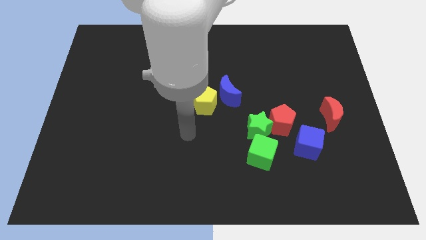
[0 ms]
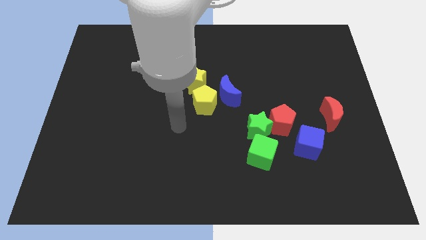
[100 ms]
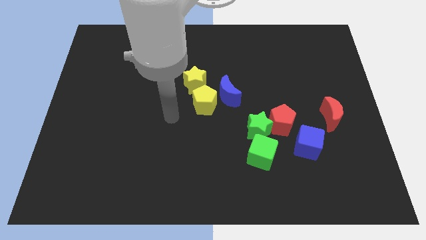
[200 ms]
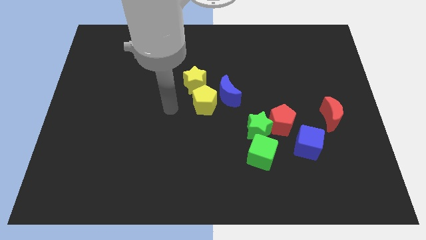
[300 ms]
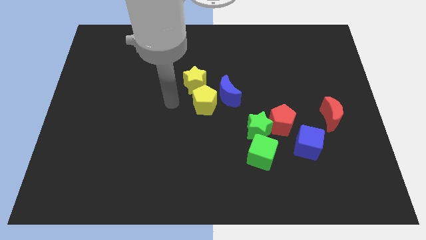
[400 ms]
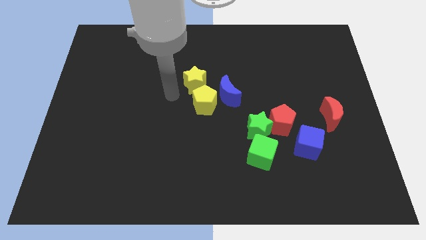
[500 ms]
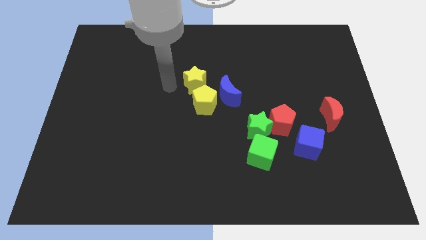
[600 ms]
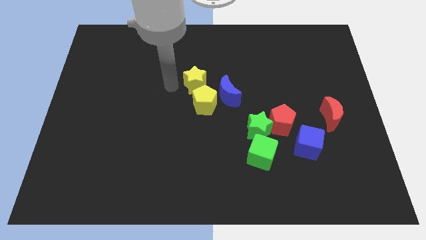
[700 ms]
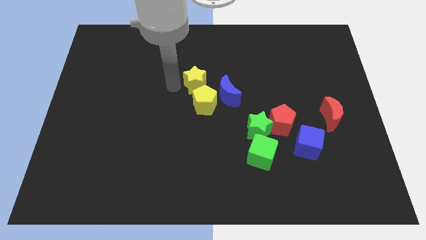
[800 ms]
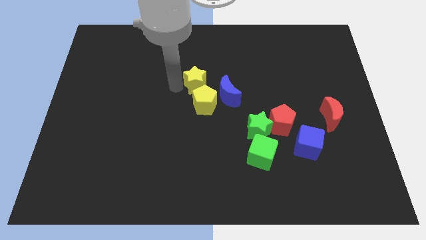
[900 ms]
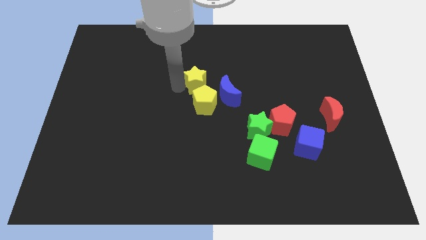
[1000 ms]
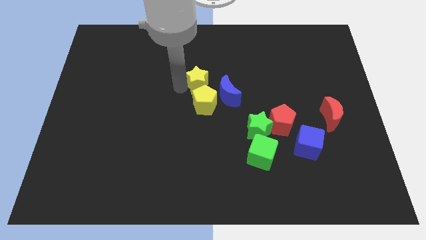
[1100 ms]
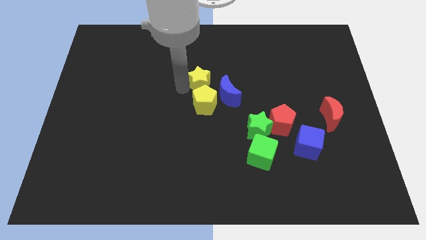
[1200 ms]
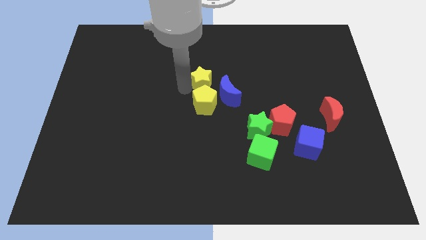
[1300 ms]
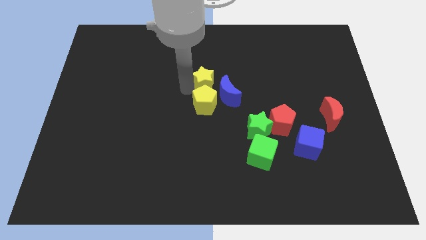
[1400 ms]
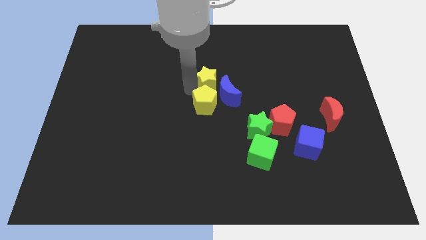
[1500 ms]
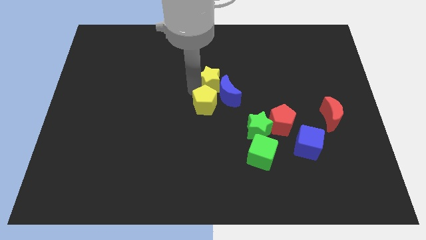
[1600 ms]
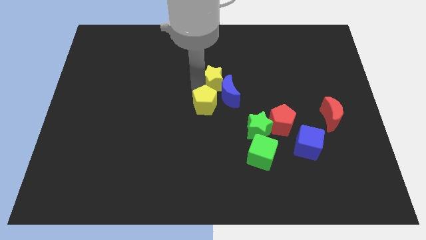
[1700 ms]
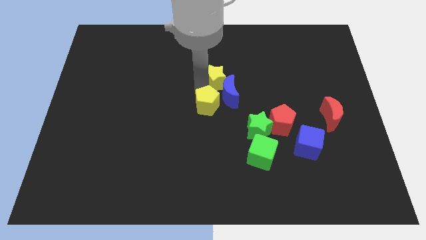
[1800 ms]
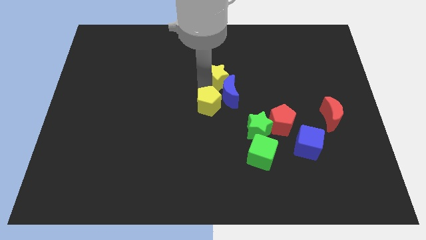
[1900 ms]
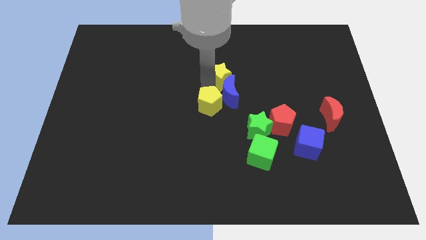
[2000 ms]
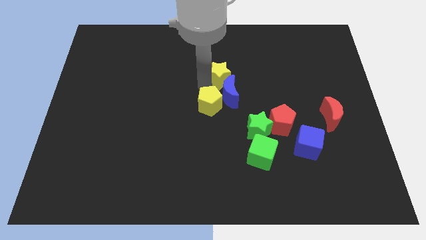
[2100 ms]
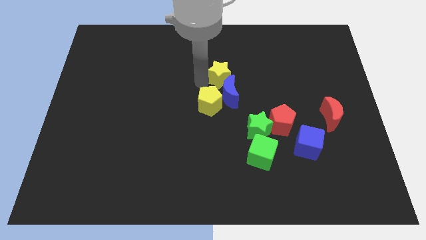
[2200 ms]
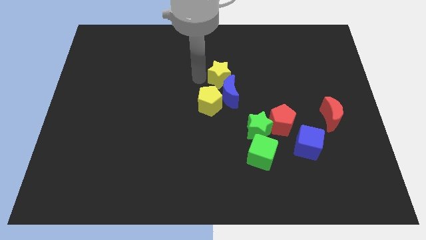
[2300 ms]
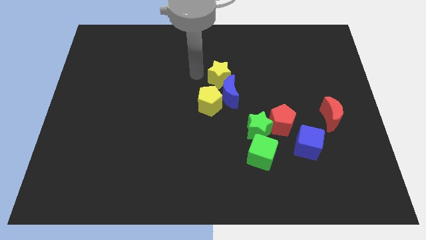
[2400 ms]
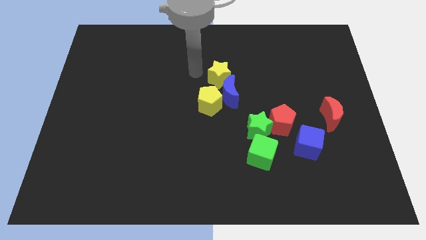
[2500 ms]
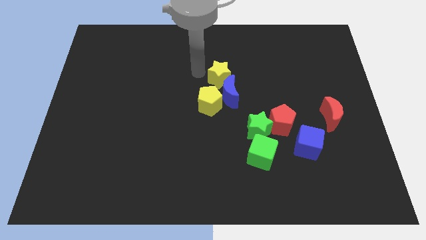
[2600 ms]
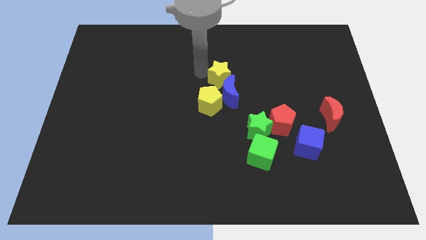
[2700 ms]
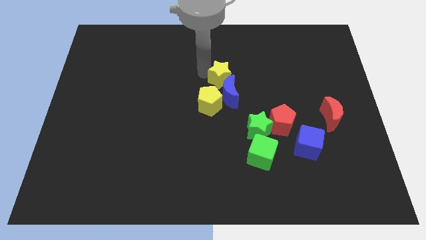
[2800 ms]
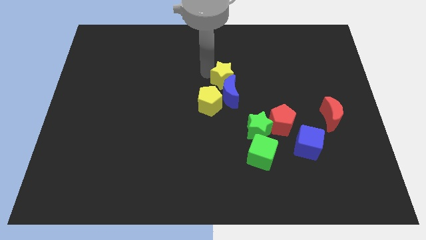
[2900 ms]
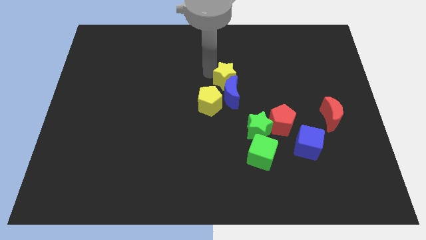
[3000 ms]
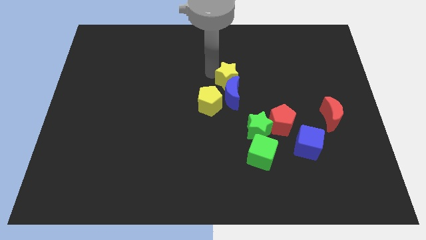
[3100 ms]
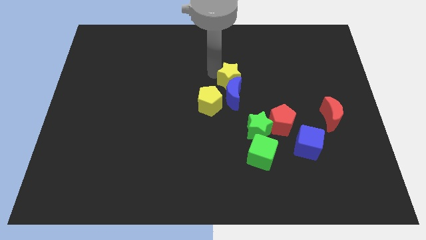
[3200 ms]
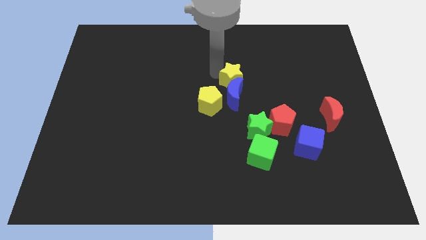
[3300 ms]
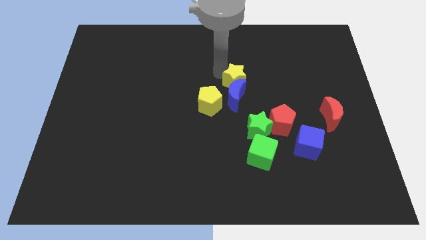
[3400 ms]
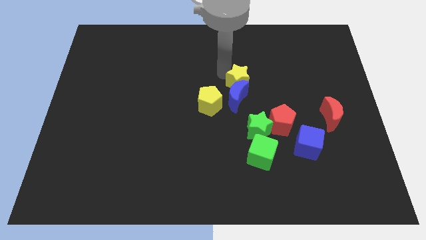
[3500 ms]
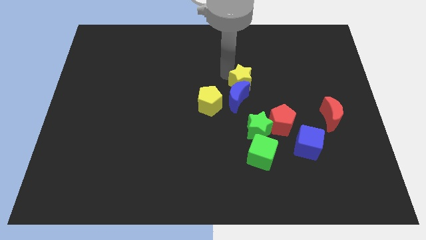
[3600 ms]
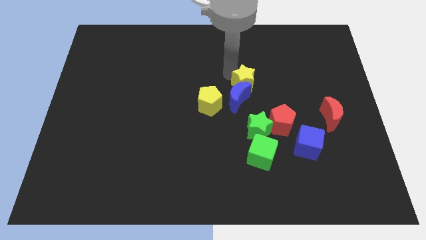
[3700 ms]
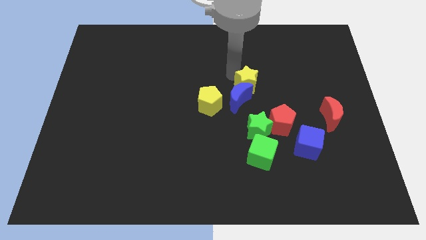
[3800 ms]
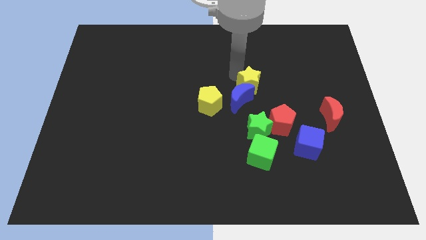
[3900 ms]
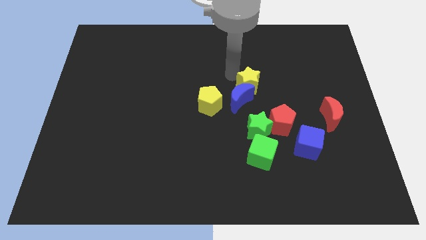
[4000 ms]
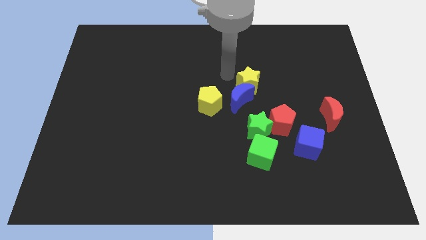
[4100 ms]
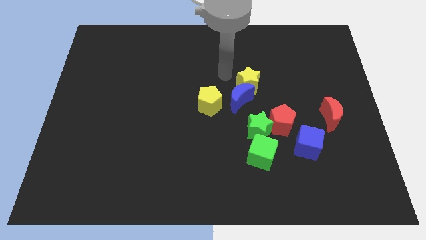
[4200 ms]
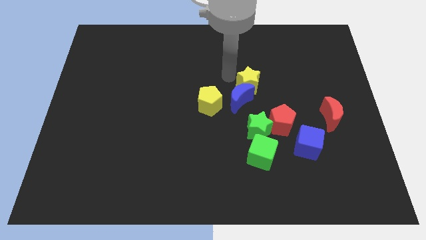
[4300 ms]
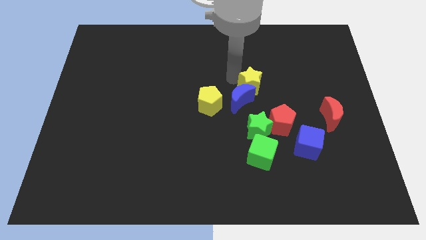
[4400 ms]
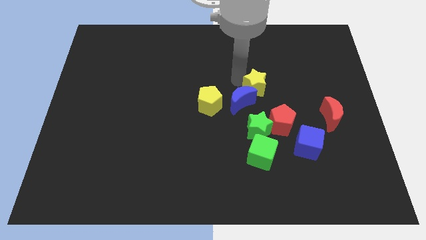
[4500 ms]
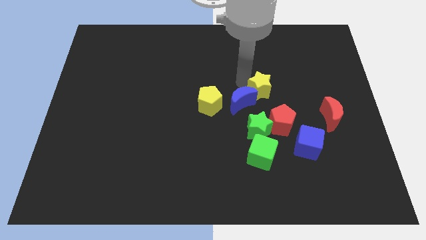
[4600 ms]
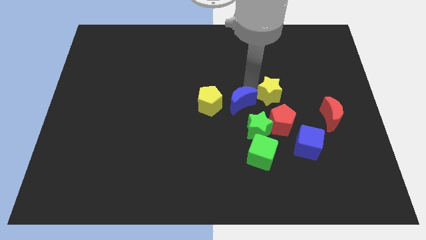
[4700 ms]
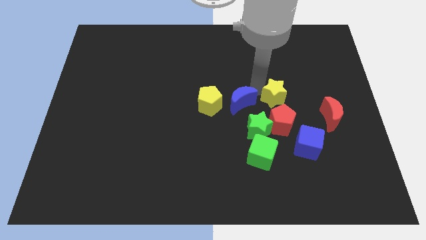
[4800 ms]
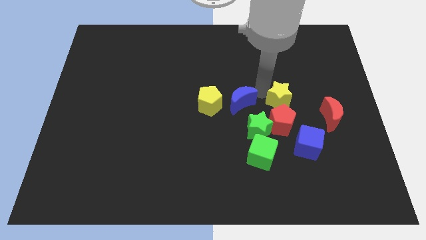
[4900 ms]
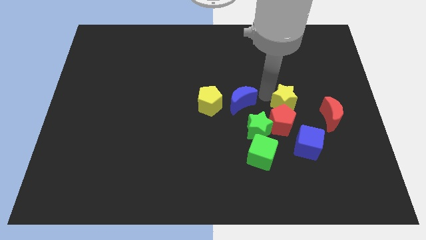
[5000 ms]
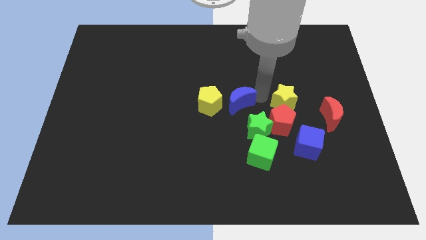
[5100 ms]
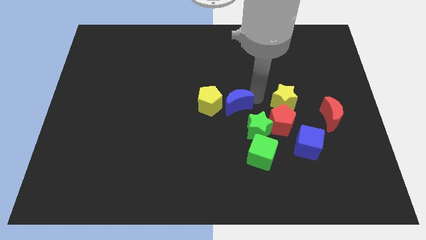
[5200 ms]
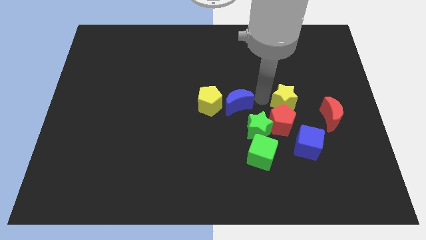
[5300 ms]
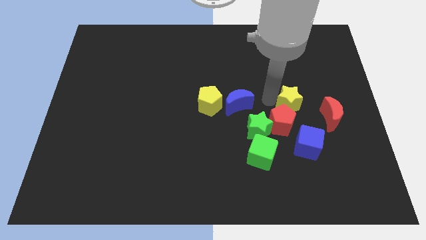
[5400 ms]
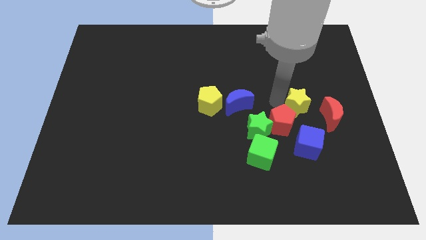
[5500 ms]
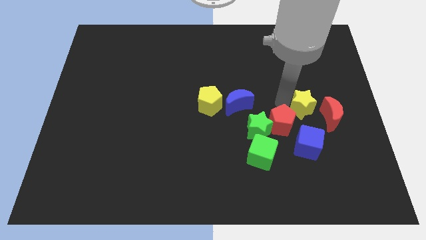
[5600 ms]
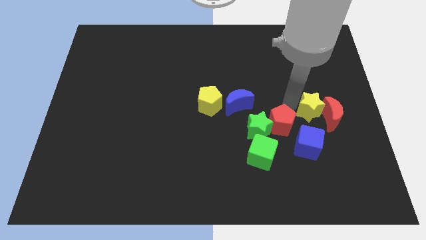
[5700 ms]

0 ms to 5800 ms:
move the yellow star towards the red moon

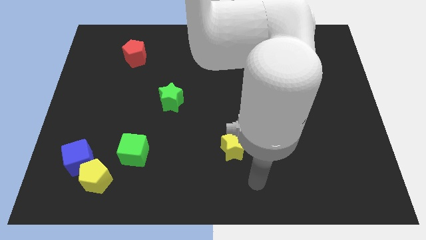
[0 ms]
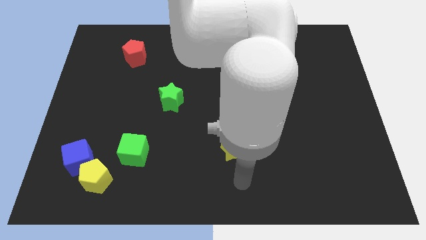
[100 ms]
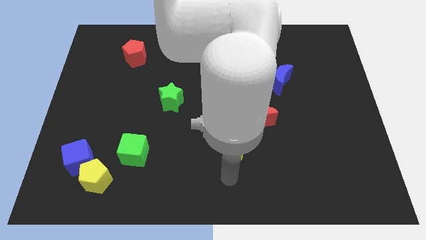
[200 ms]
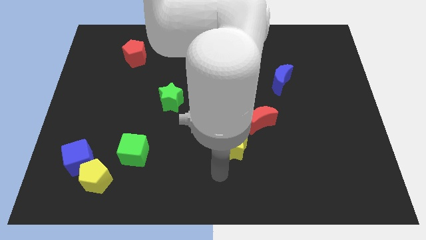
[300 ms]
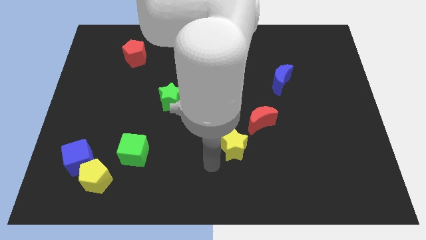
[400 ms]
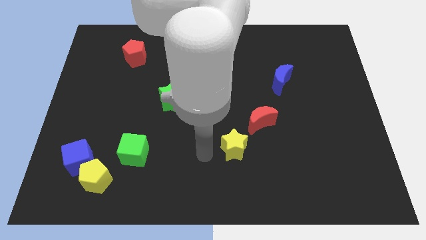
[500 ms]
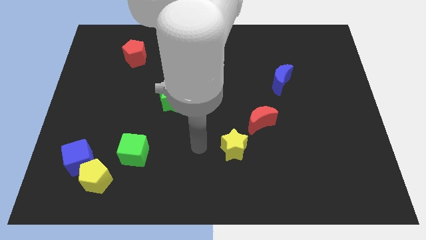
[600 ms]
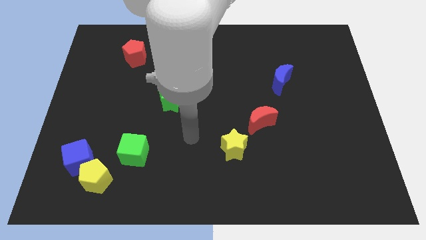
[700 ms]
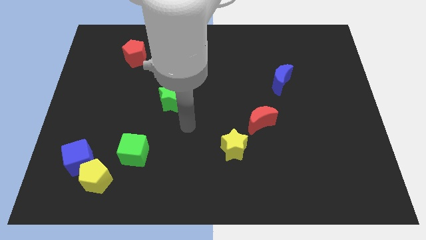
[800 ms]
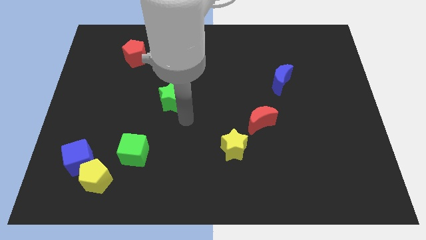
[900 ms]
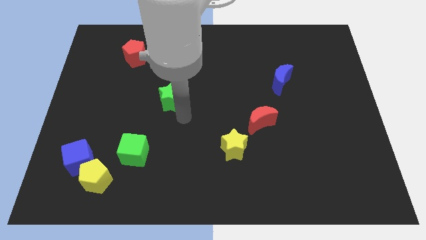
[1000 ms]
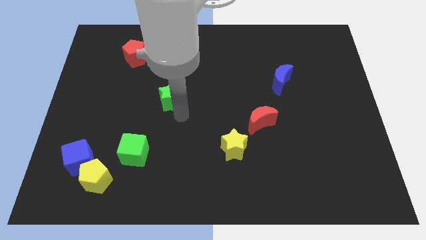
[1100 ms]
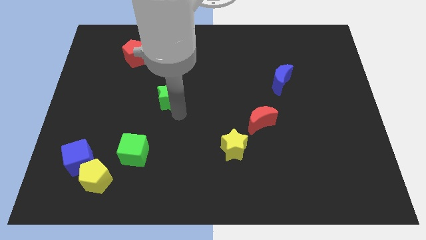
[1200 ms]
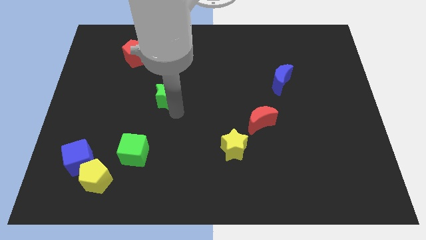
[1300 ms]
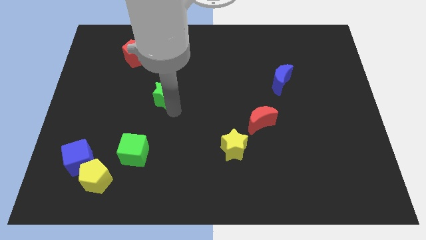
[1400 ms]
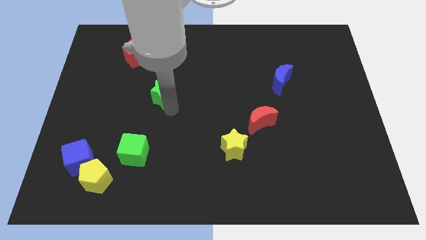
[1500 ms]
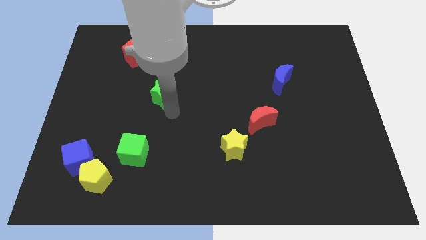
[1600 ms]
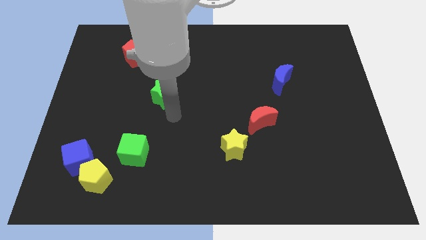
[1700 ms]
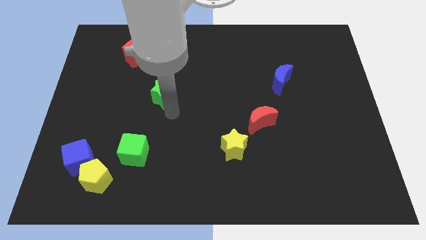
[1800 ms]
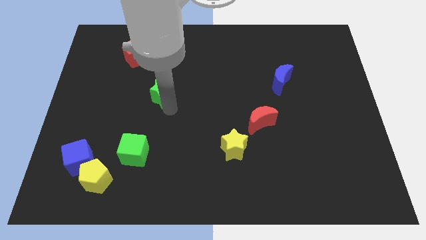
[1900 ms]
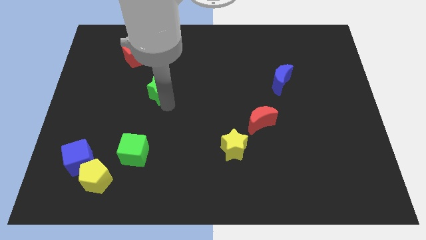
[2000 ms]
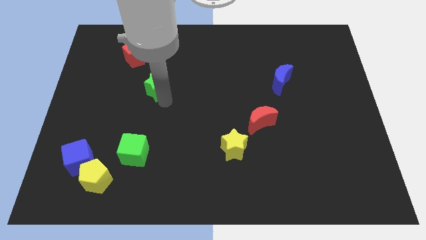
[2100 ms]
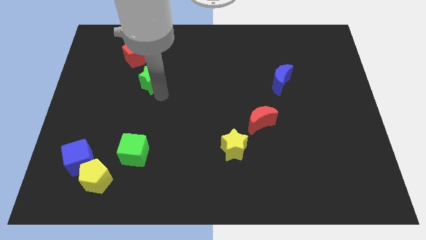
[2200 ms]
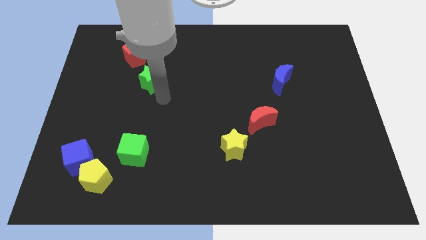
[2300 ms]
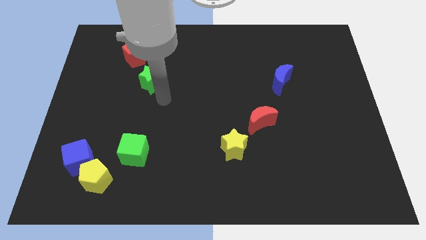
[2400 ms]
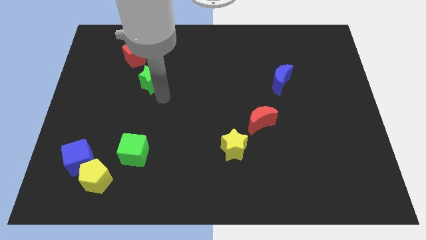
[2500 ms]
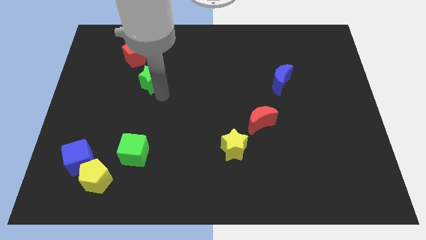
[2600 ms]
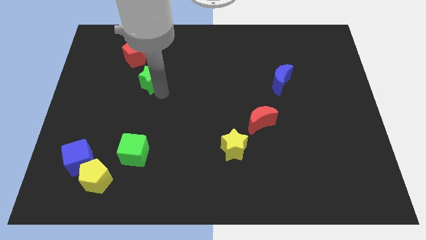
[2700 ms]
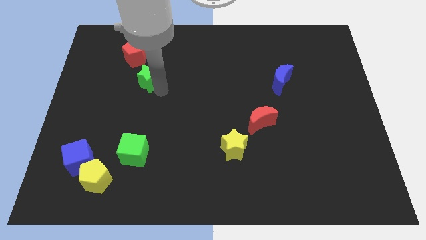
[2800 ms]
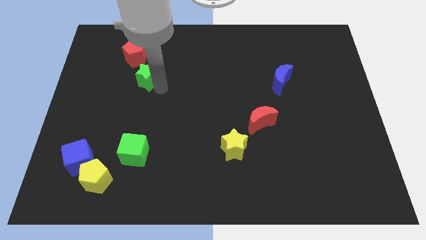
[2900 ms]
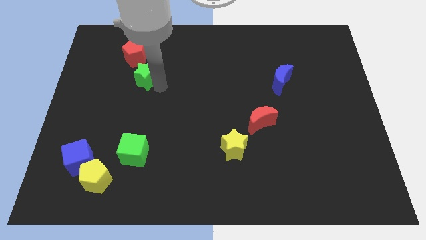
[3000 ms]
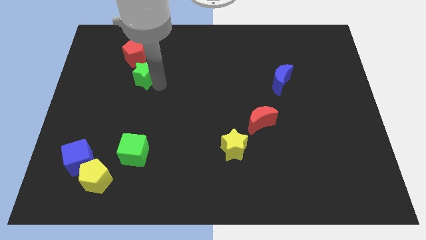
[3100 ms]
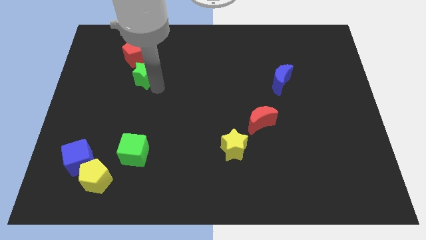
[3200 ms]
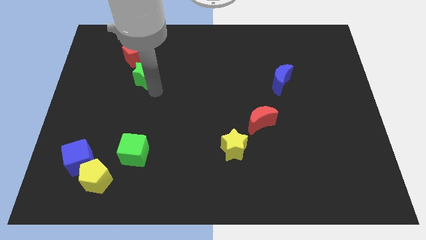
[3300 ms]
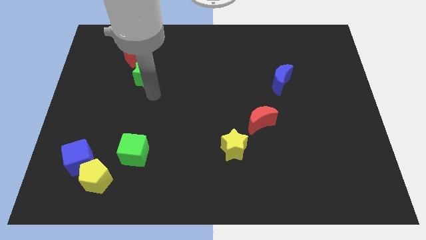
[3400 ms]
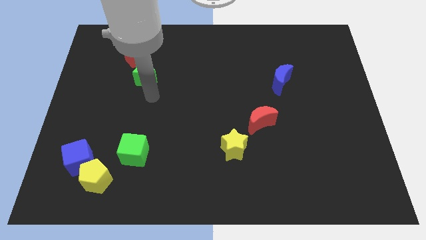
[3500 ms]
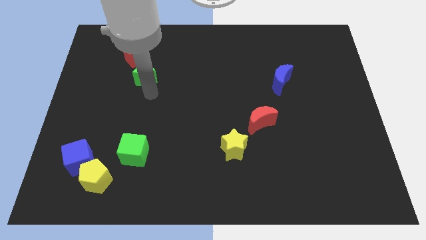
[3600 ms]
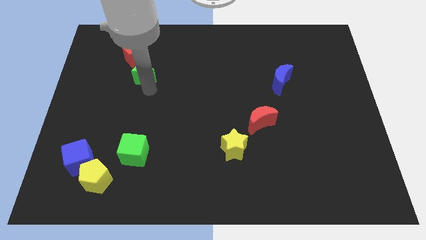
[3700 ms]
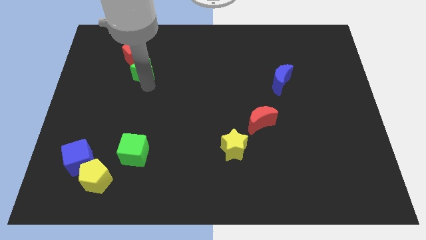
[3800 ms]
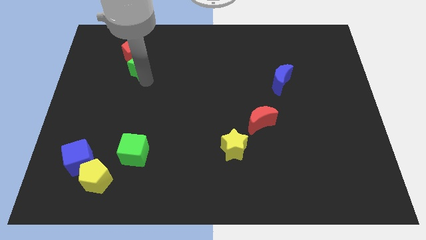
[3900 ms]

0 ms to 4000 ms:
move the green star towards the red pentagon
